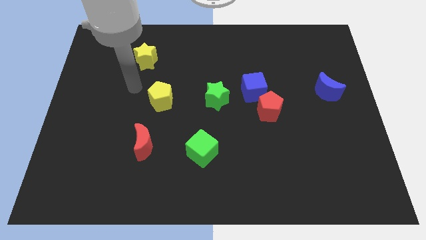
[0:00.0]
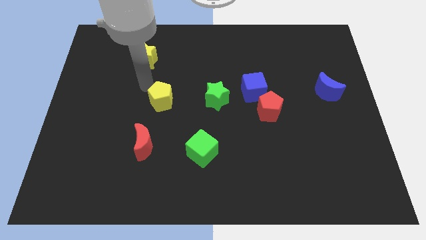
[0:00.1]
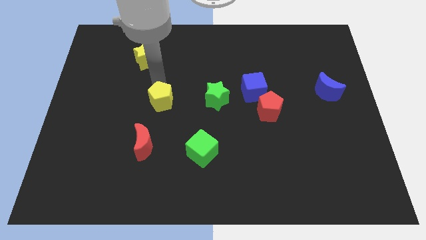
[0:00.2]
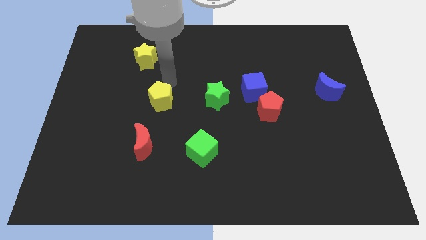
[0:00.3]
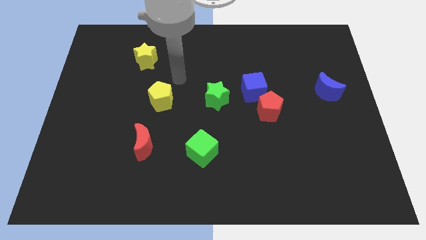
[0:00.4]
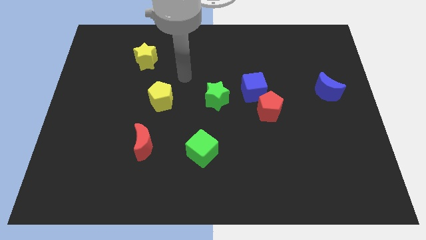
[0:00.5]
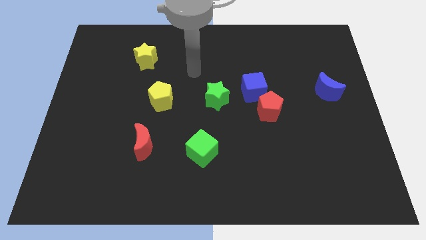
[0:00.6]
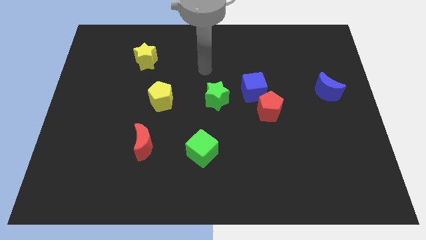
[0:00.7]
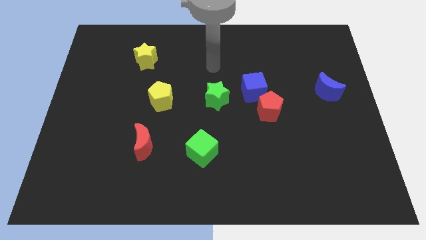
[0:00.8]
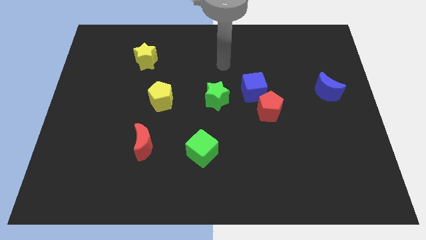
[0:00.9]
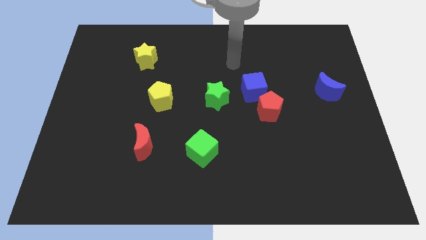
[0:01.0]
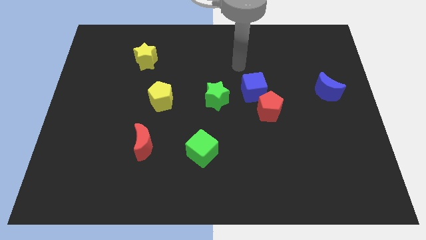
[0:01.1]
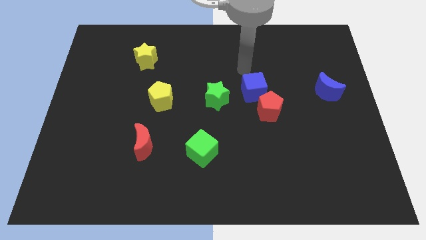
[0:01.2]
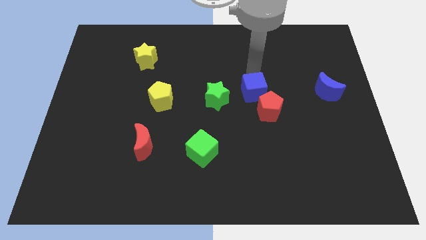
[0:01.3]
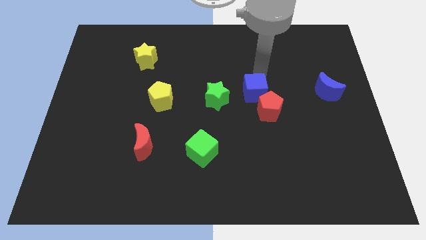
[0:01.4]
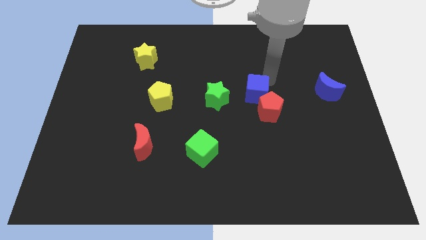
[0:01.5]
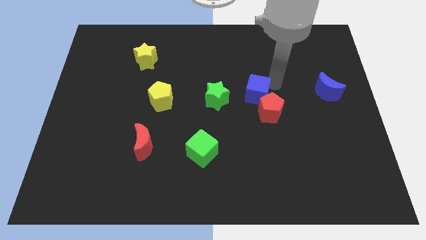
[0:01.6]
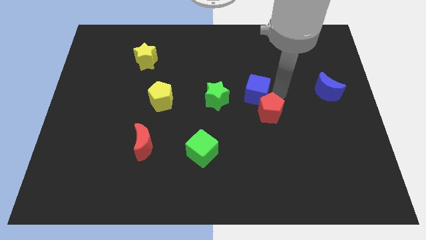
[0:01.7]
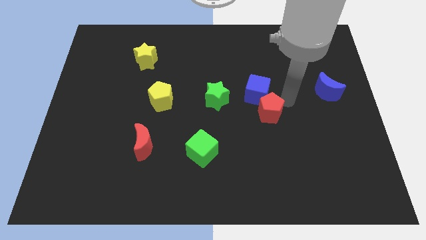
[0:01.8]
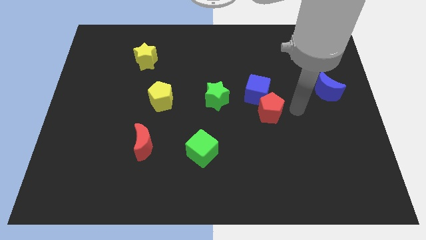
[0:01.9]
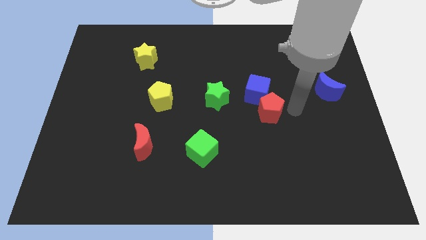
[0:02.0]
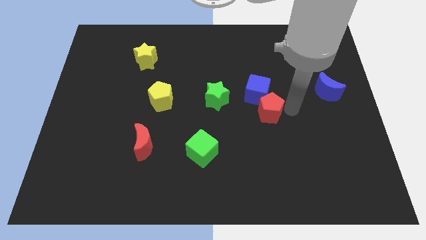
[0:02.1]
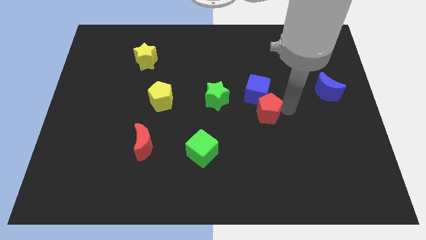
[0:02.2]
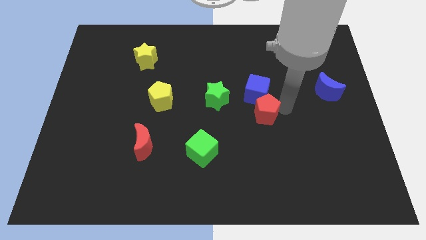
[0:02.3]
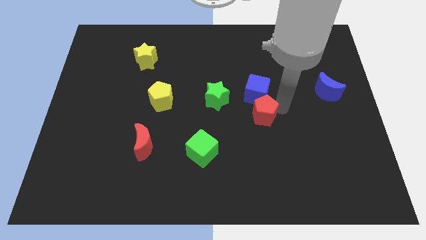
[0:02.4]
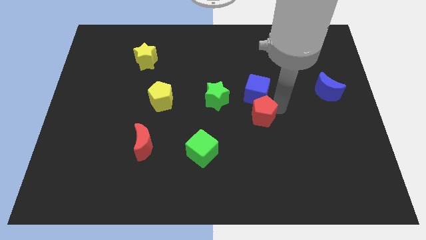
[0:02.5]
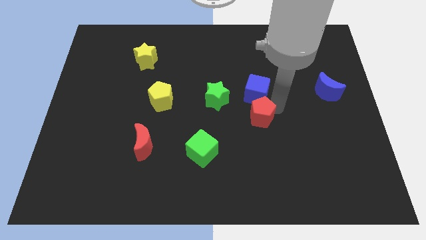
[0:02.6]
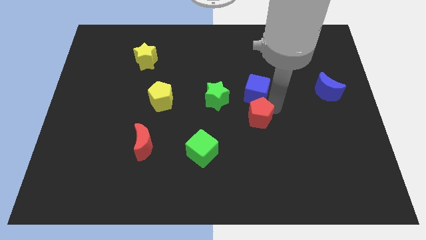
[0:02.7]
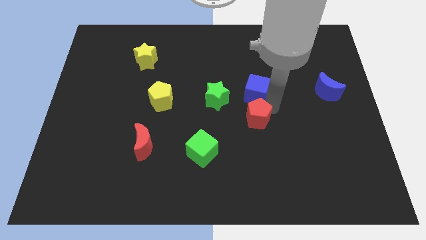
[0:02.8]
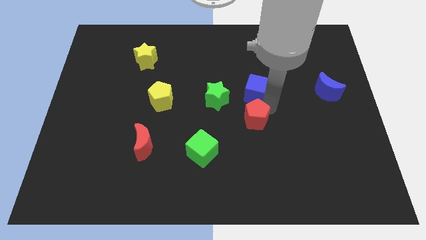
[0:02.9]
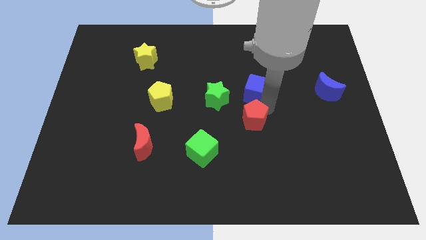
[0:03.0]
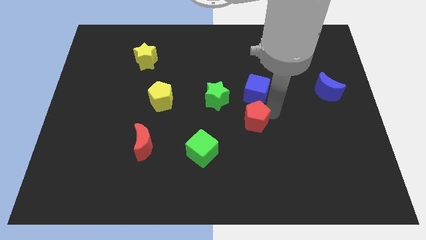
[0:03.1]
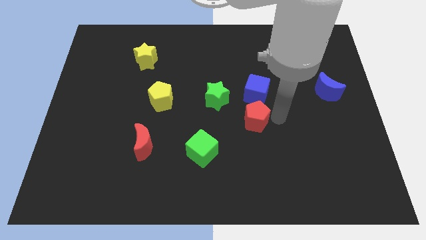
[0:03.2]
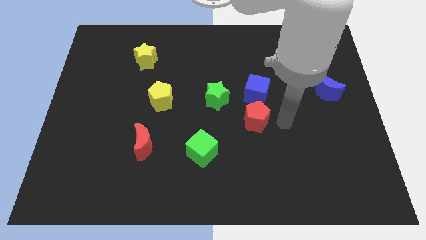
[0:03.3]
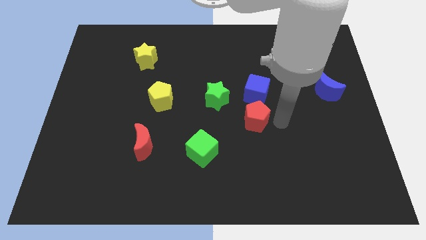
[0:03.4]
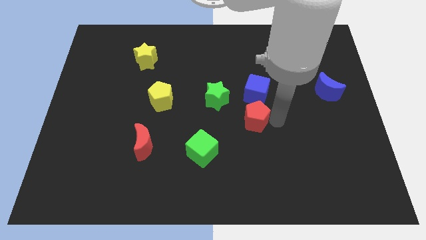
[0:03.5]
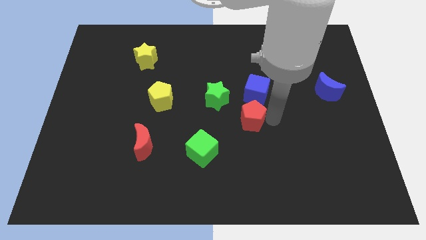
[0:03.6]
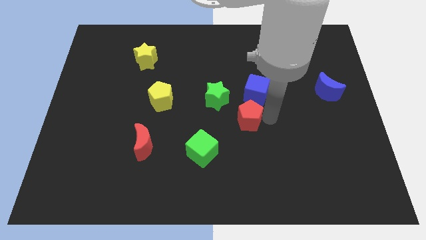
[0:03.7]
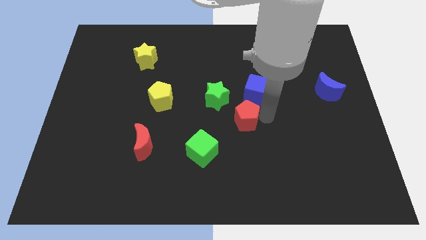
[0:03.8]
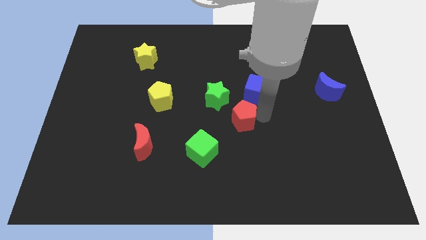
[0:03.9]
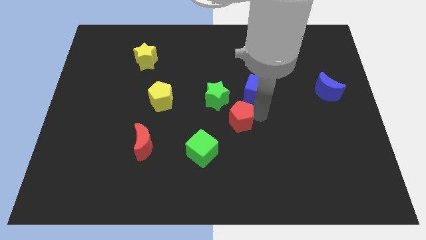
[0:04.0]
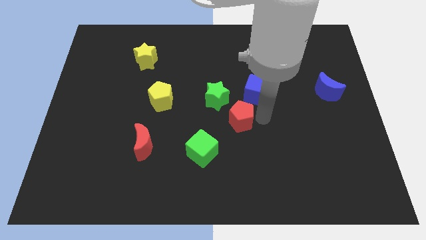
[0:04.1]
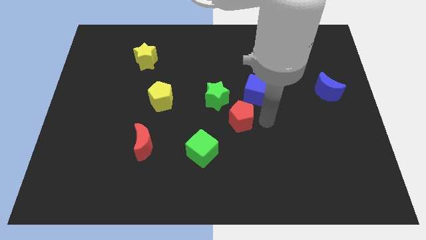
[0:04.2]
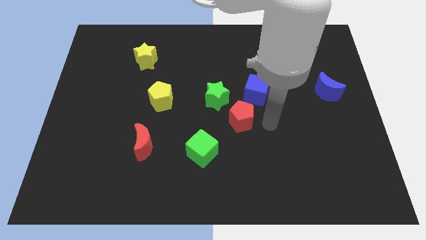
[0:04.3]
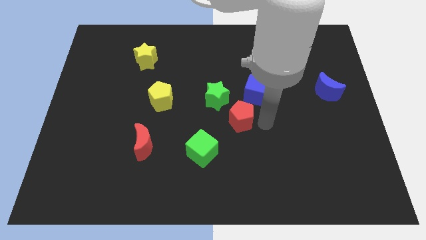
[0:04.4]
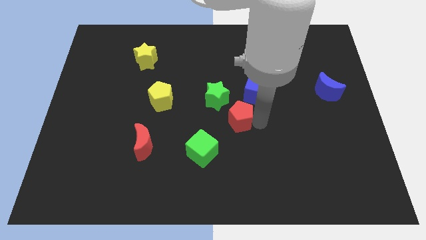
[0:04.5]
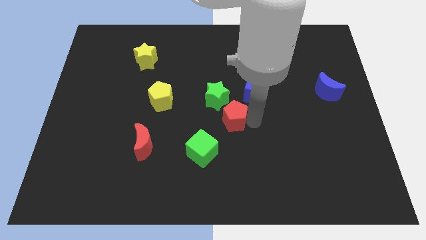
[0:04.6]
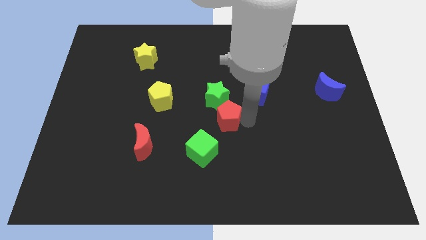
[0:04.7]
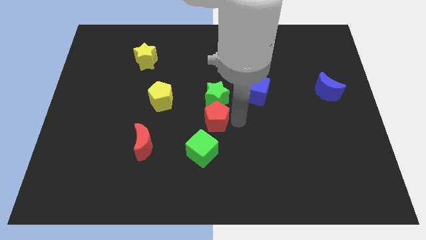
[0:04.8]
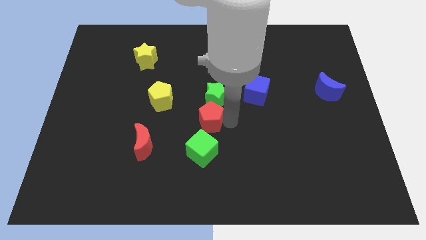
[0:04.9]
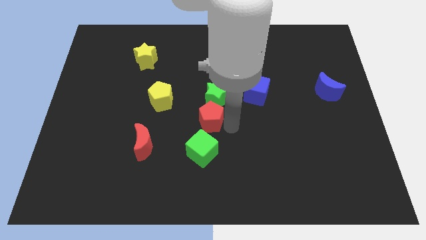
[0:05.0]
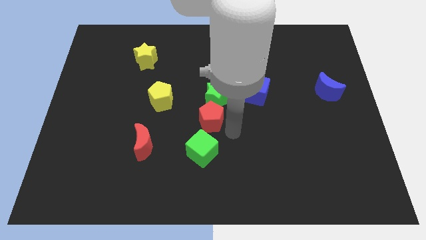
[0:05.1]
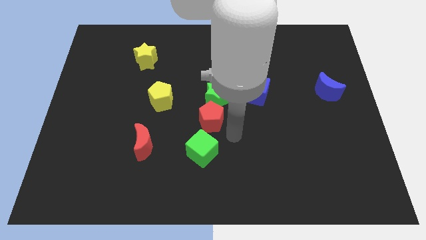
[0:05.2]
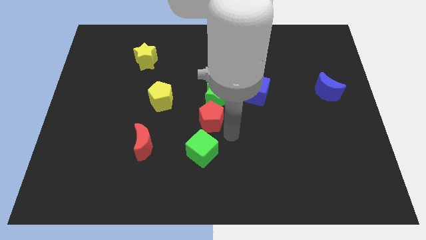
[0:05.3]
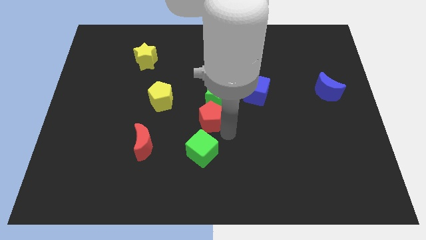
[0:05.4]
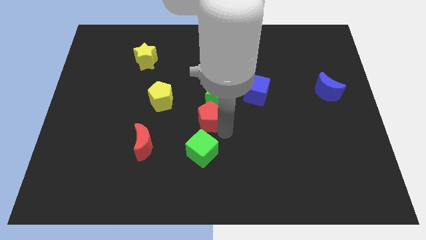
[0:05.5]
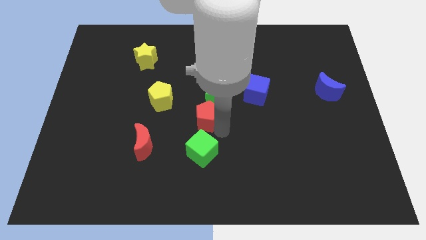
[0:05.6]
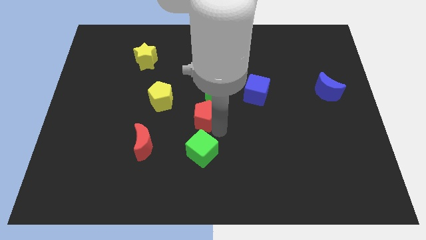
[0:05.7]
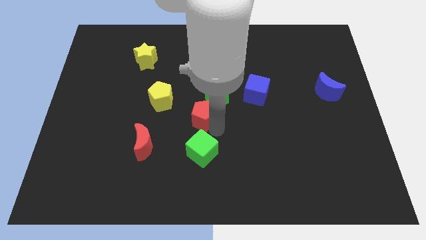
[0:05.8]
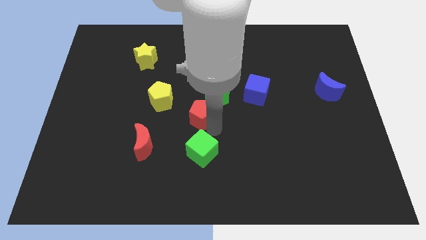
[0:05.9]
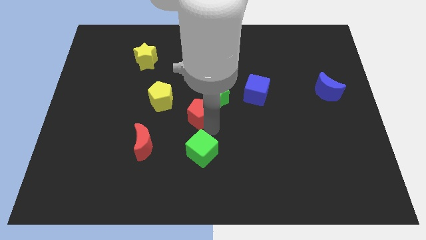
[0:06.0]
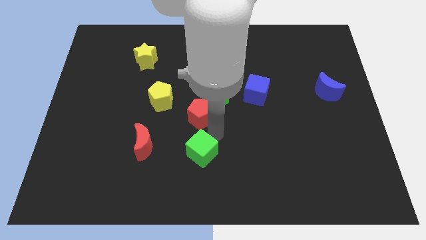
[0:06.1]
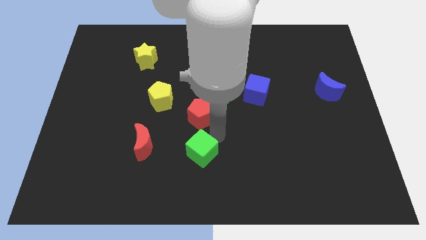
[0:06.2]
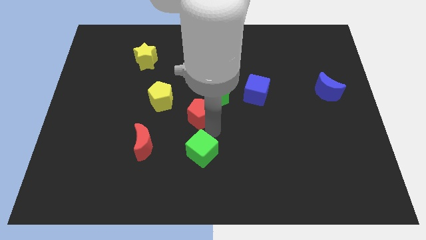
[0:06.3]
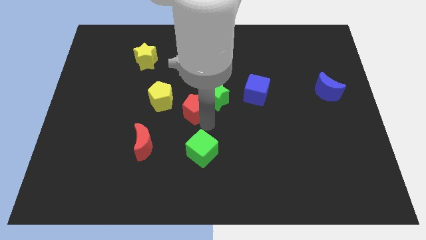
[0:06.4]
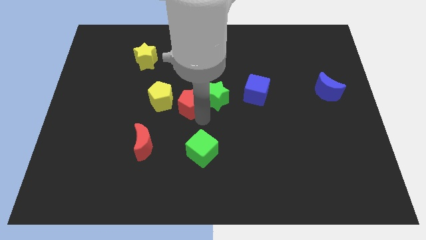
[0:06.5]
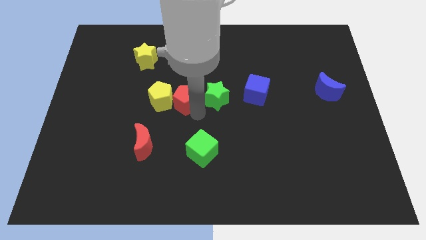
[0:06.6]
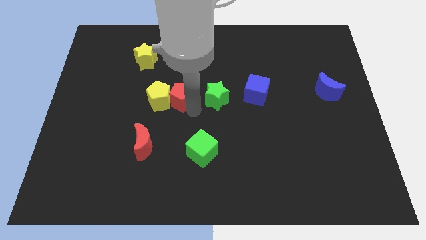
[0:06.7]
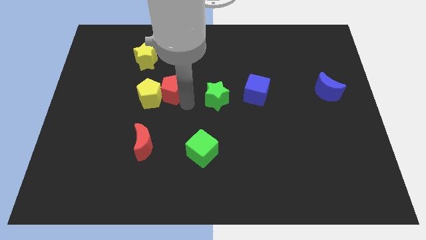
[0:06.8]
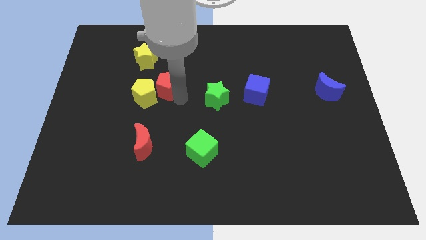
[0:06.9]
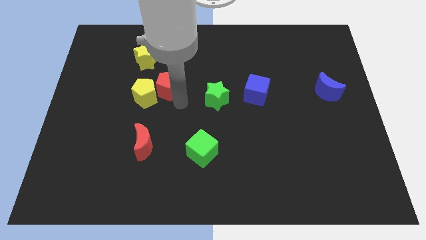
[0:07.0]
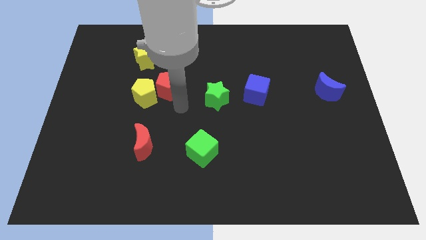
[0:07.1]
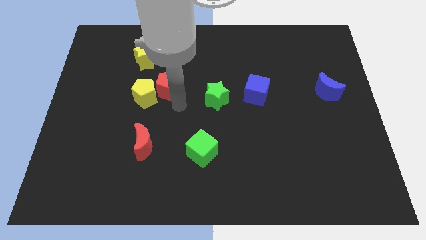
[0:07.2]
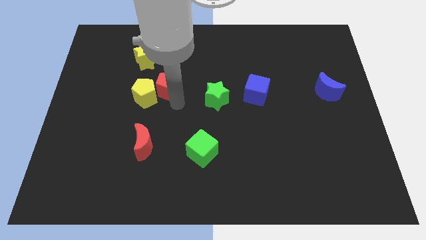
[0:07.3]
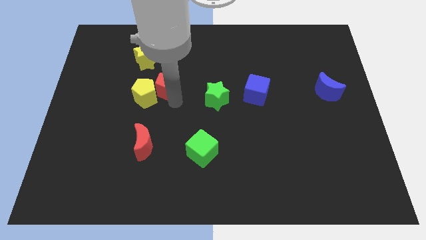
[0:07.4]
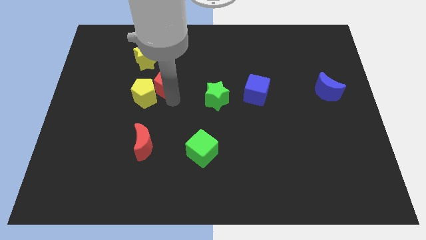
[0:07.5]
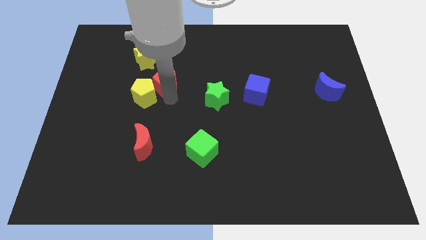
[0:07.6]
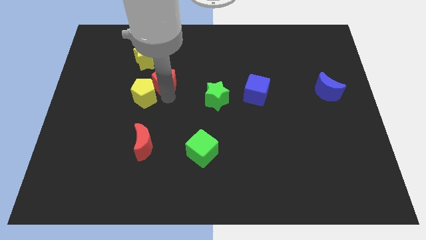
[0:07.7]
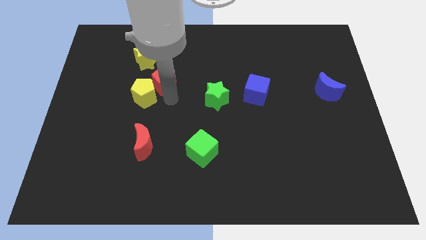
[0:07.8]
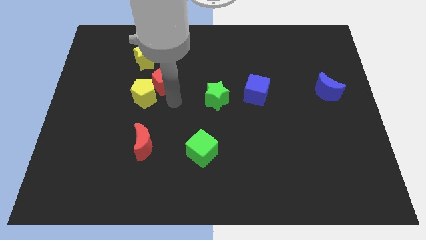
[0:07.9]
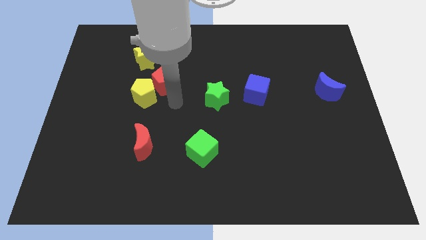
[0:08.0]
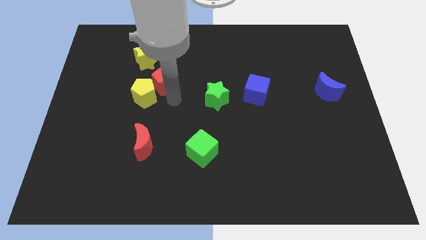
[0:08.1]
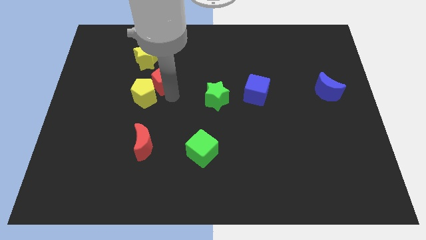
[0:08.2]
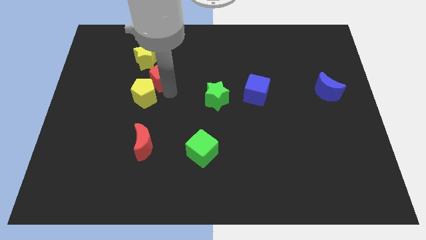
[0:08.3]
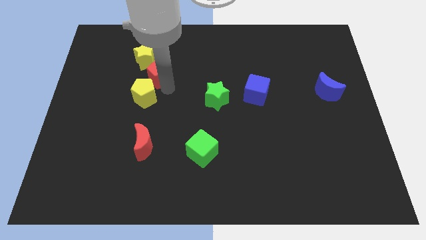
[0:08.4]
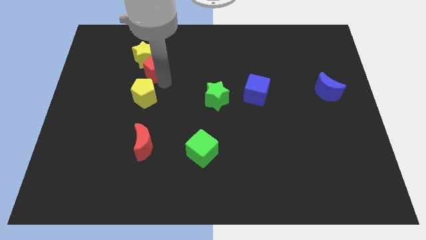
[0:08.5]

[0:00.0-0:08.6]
slide the red pentagon close to the yellow star
